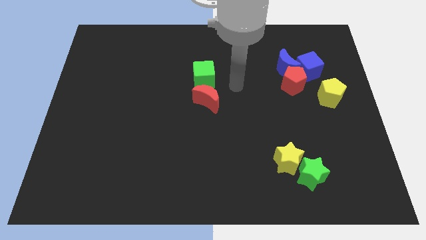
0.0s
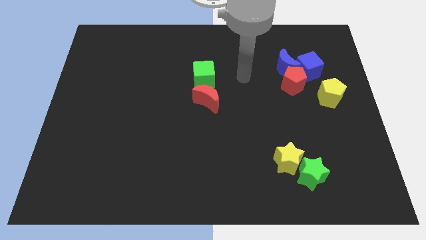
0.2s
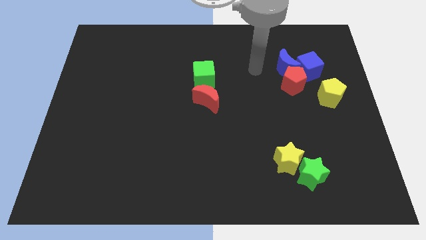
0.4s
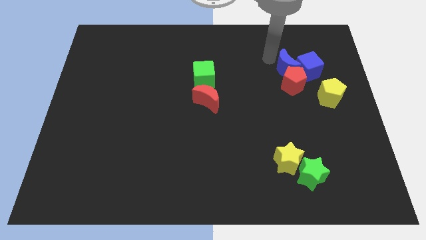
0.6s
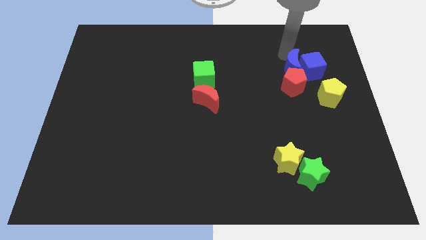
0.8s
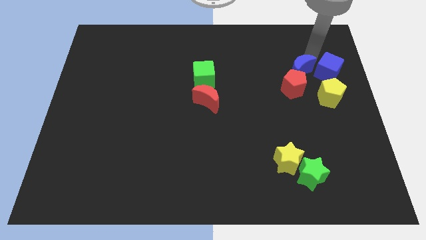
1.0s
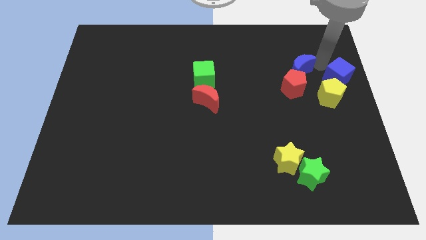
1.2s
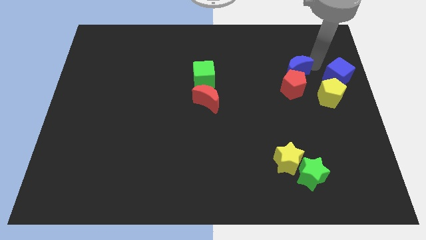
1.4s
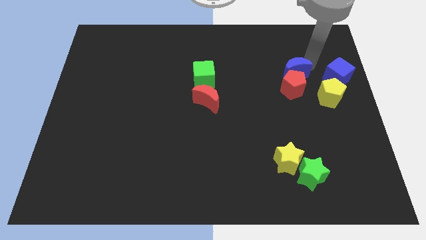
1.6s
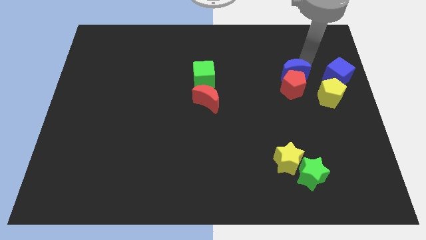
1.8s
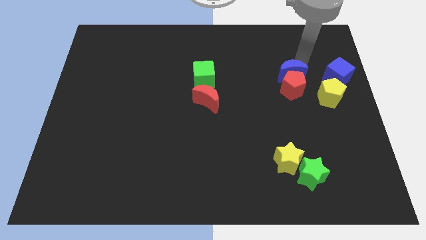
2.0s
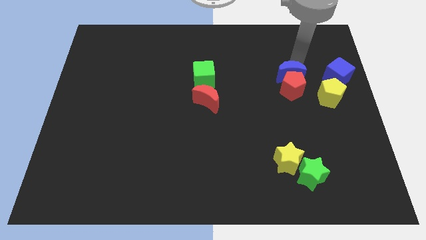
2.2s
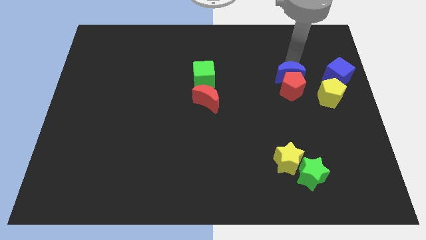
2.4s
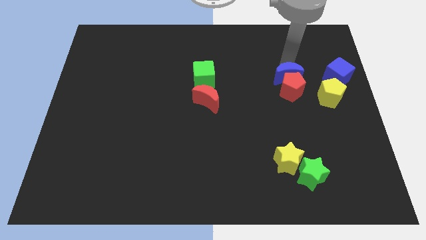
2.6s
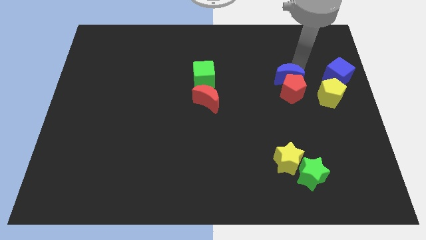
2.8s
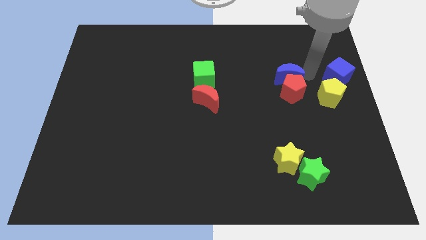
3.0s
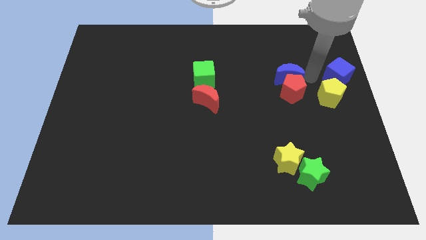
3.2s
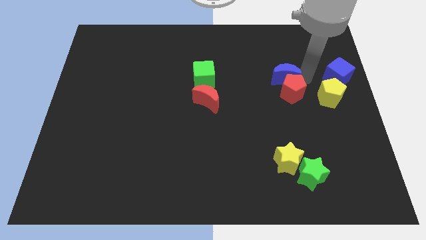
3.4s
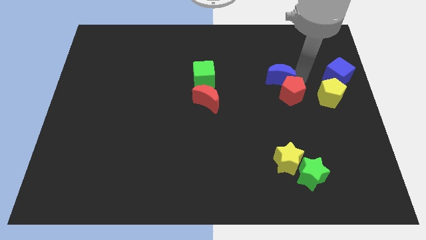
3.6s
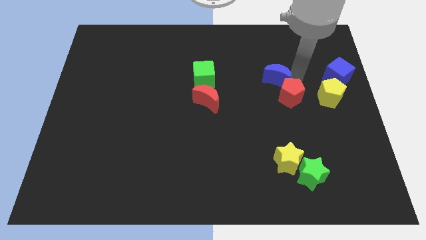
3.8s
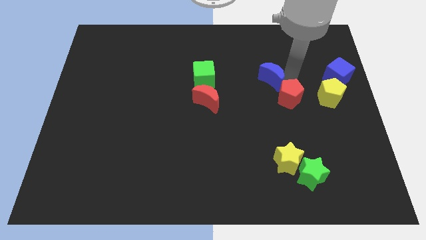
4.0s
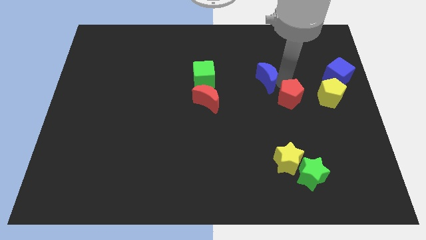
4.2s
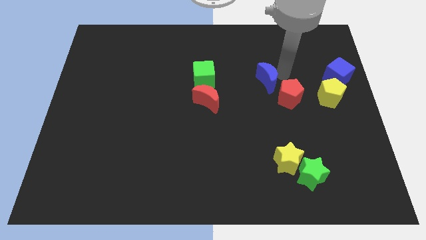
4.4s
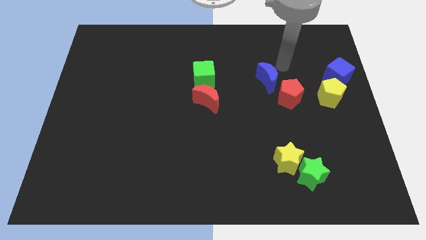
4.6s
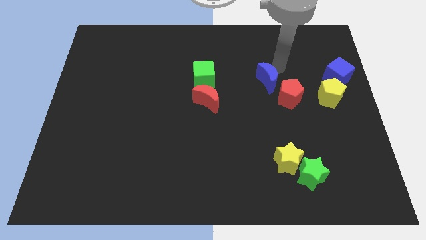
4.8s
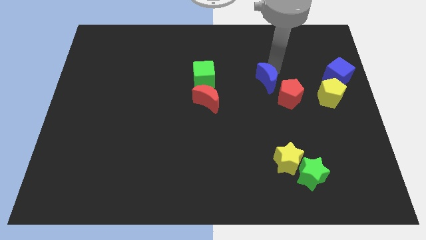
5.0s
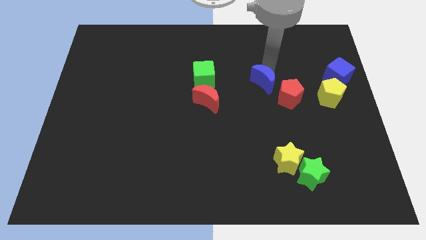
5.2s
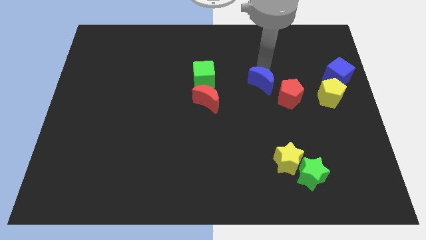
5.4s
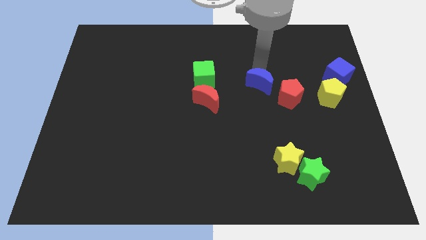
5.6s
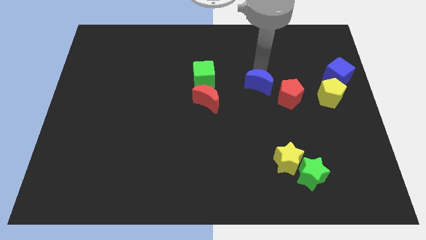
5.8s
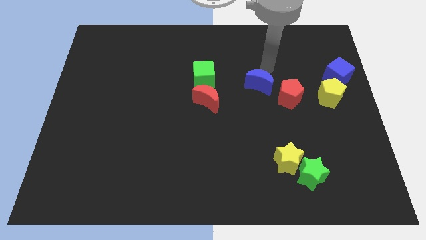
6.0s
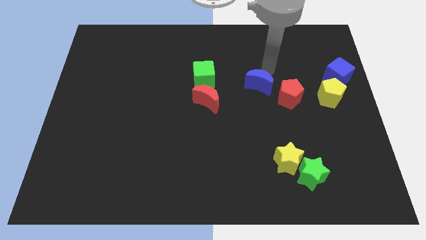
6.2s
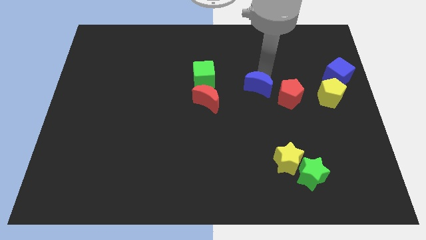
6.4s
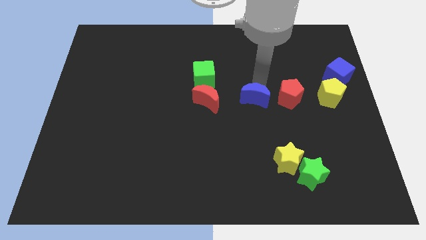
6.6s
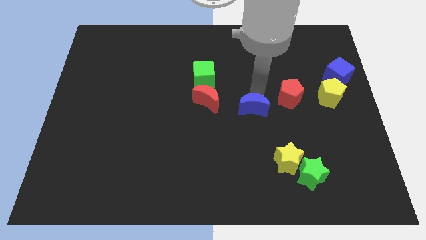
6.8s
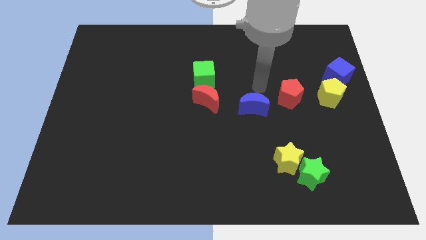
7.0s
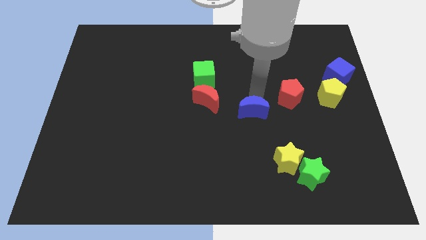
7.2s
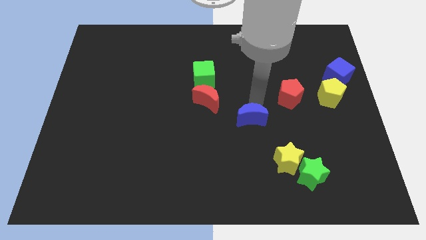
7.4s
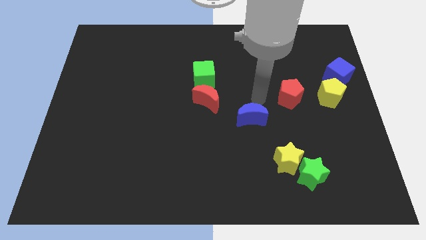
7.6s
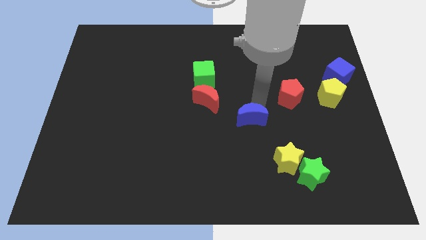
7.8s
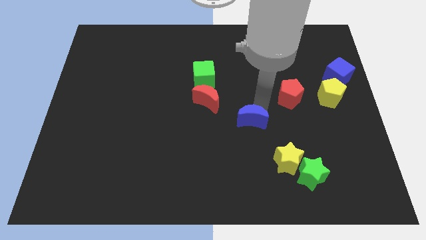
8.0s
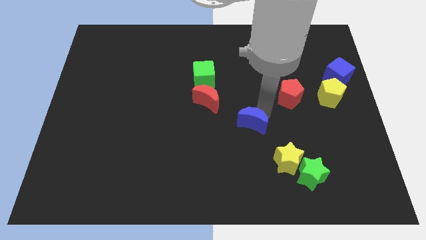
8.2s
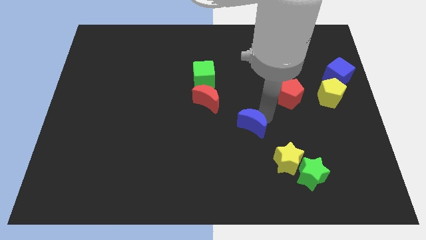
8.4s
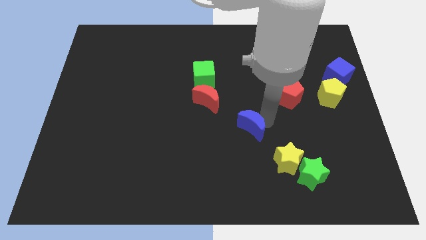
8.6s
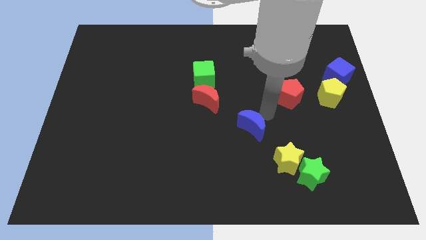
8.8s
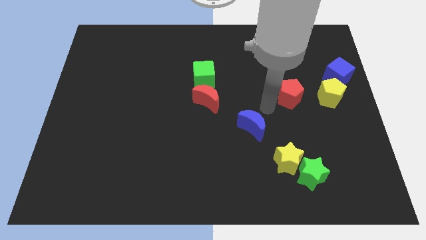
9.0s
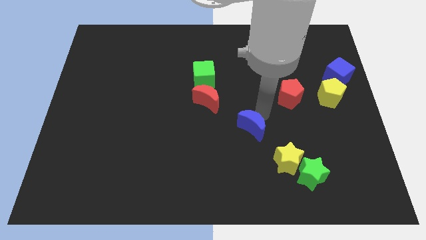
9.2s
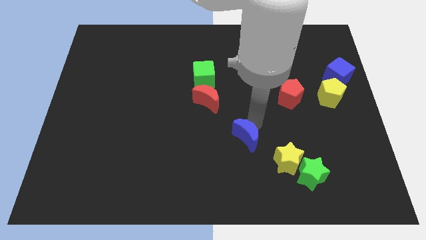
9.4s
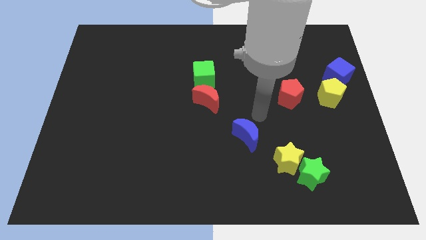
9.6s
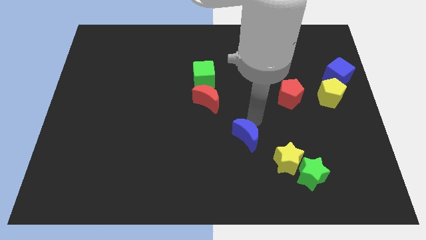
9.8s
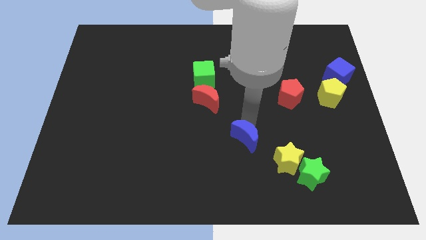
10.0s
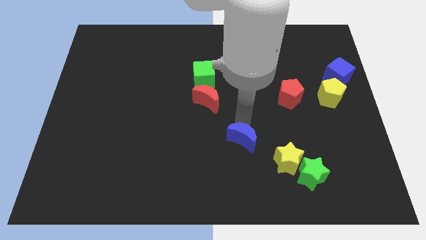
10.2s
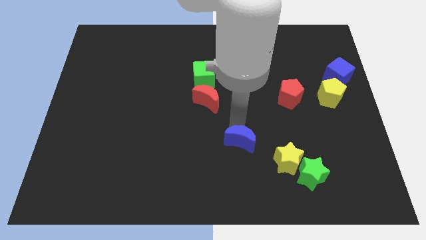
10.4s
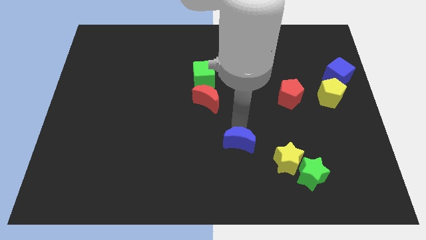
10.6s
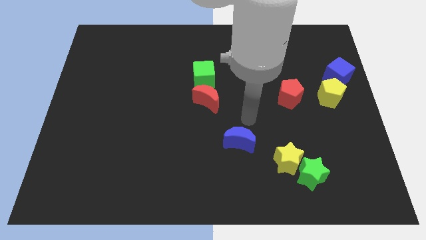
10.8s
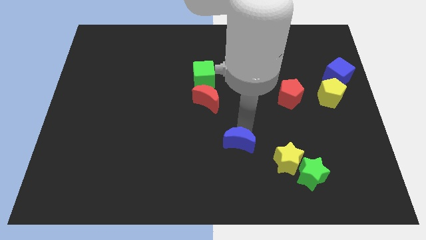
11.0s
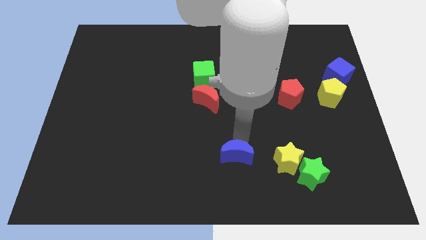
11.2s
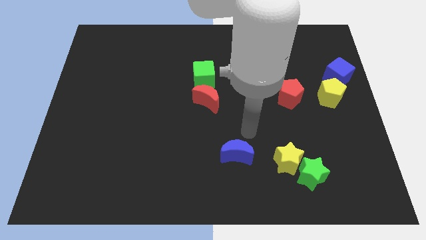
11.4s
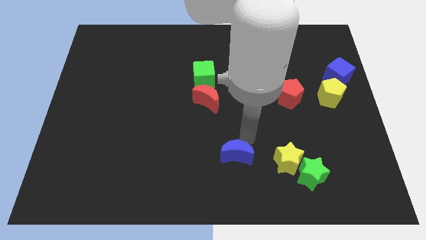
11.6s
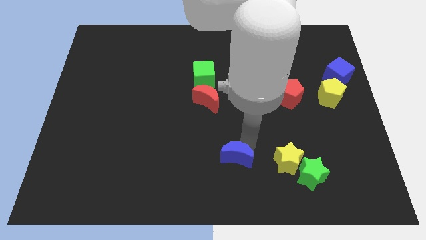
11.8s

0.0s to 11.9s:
slide the blue moon to the bottom side

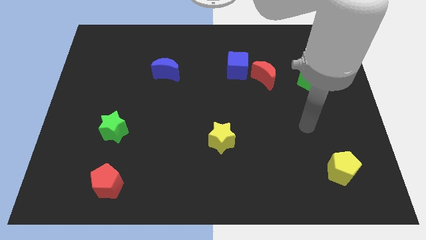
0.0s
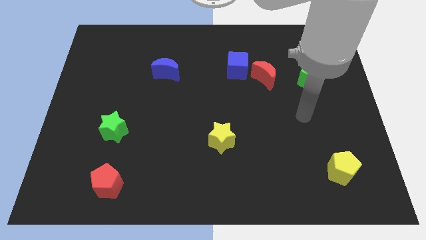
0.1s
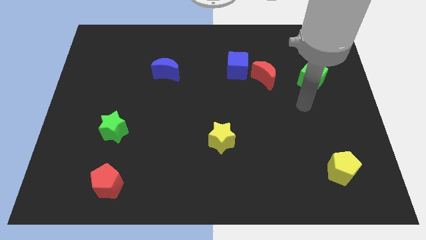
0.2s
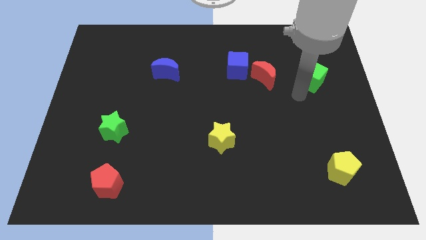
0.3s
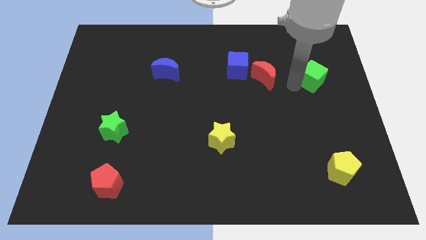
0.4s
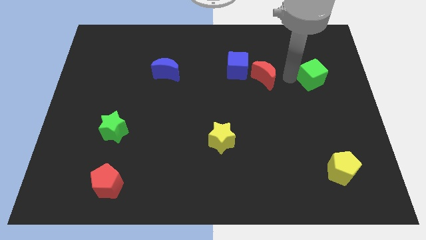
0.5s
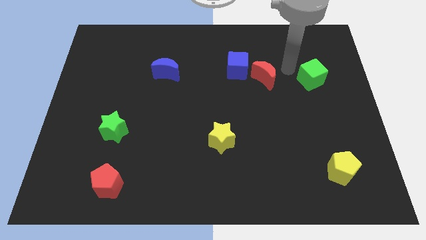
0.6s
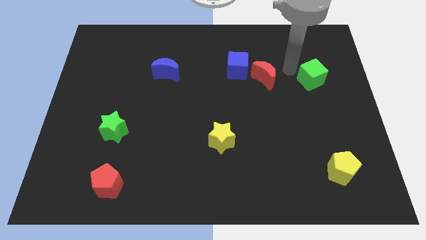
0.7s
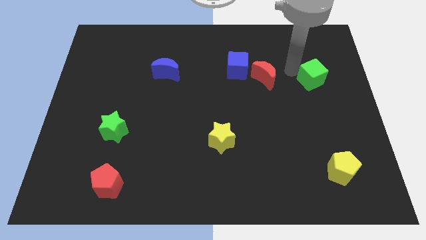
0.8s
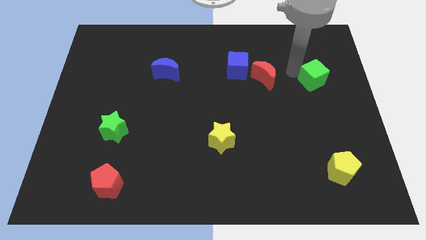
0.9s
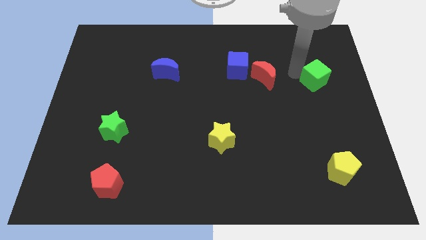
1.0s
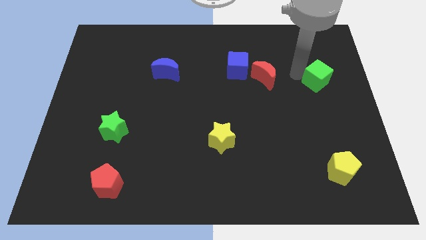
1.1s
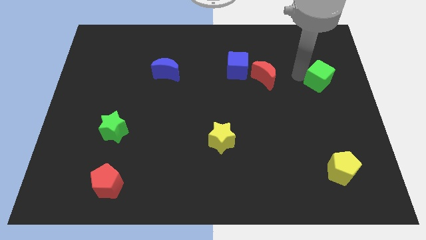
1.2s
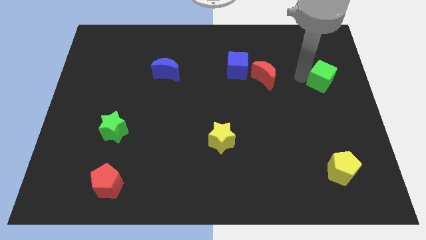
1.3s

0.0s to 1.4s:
push the green cube to the right side
